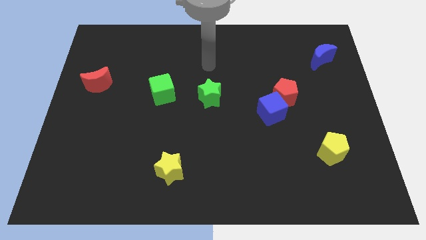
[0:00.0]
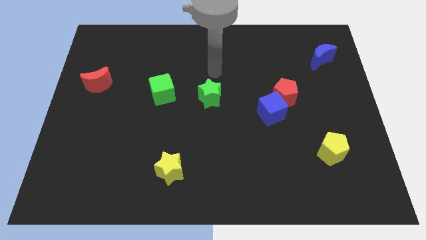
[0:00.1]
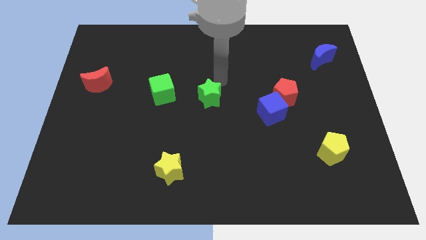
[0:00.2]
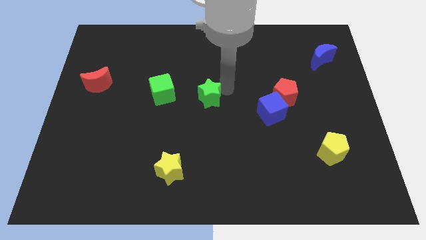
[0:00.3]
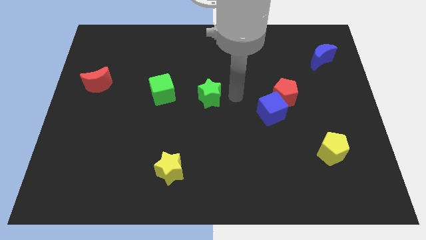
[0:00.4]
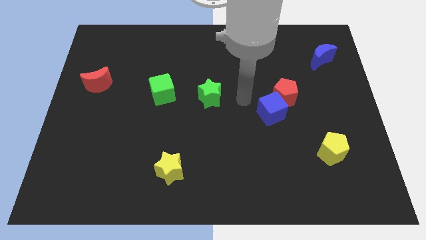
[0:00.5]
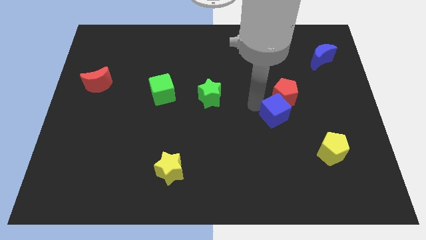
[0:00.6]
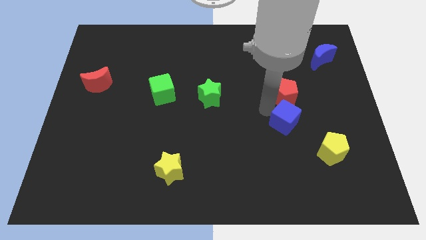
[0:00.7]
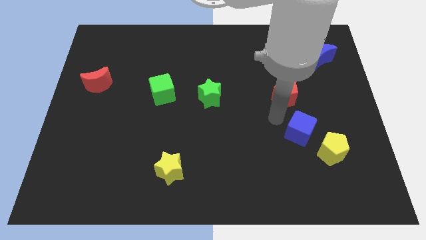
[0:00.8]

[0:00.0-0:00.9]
pull the red pentagon apart from the blue cube

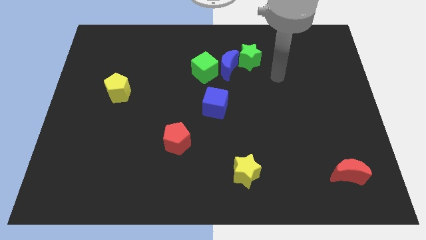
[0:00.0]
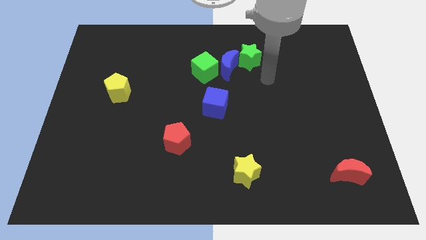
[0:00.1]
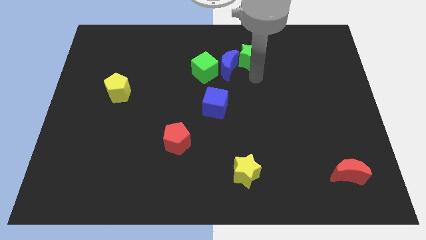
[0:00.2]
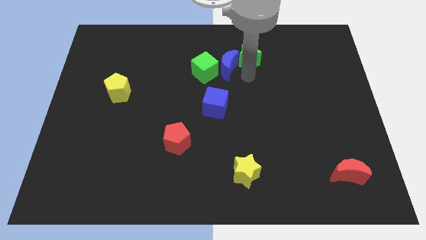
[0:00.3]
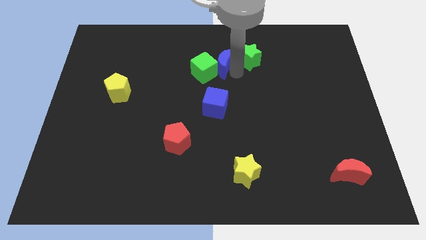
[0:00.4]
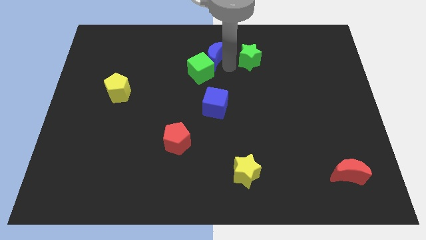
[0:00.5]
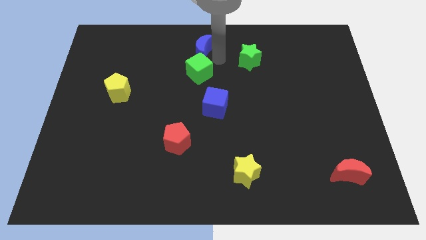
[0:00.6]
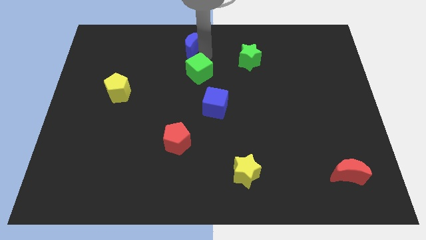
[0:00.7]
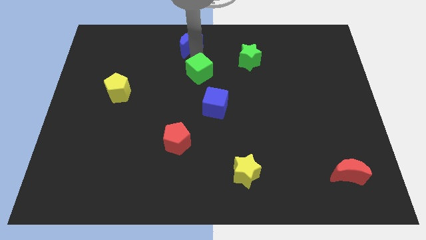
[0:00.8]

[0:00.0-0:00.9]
pull the green cube apart from the blue moon

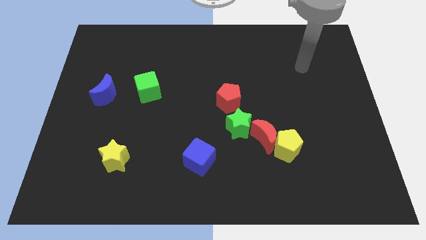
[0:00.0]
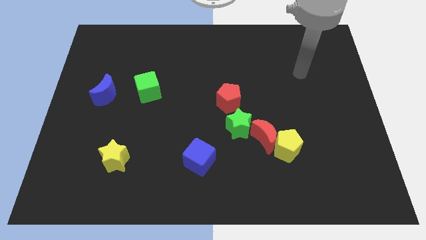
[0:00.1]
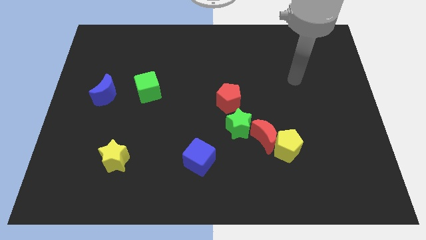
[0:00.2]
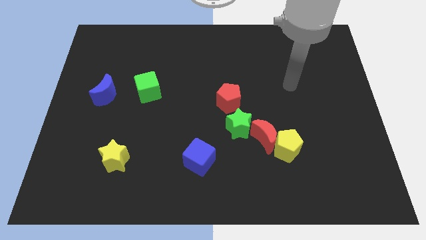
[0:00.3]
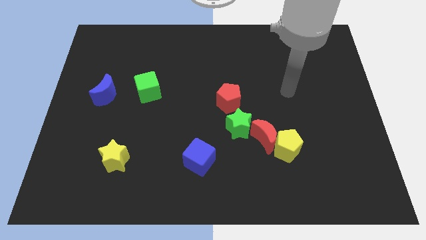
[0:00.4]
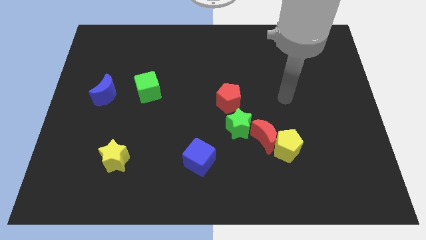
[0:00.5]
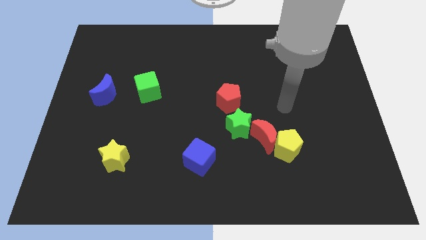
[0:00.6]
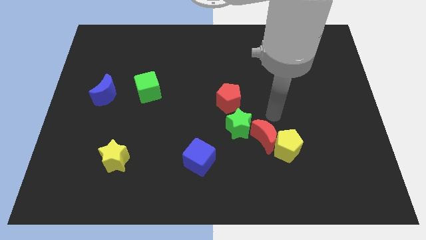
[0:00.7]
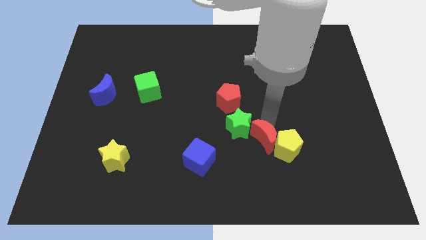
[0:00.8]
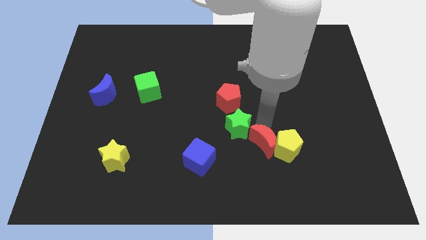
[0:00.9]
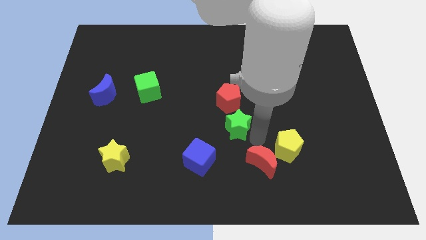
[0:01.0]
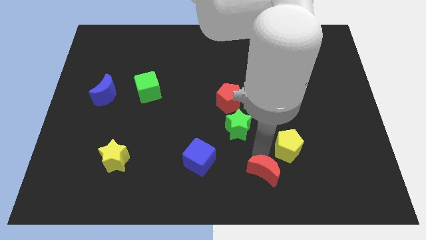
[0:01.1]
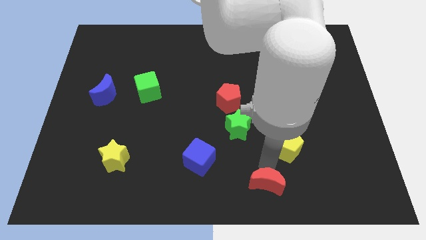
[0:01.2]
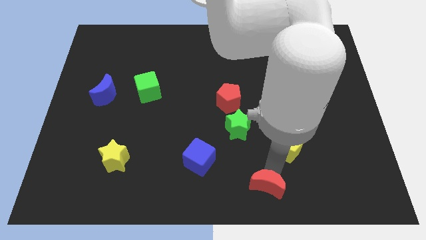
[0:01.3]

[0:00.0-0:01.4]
separate the yellow pentagon from the red moon

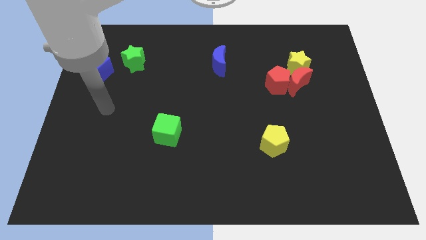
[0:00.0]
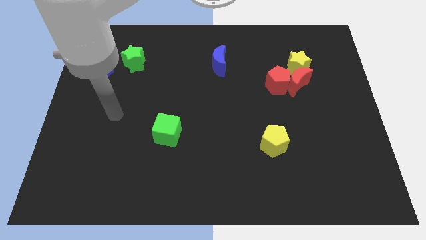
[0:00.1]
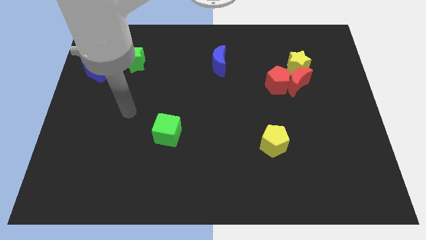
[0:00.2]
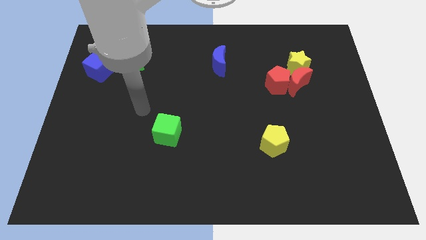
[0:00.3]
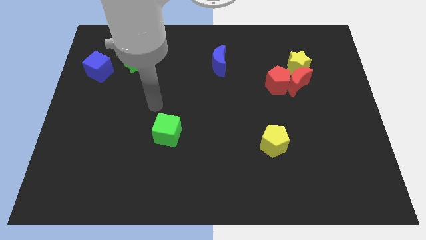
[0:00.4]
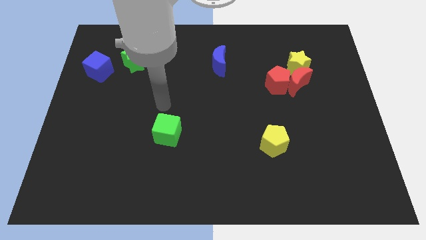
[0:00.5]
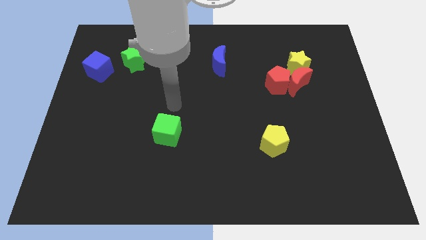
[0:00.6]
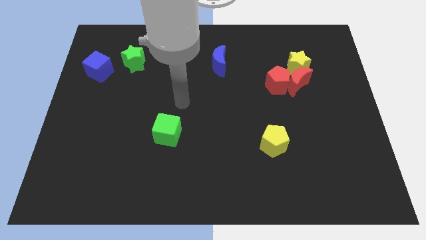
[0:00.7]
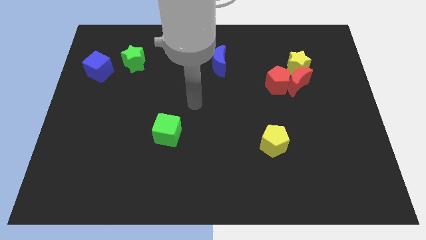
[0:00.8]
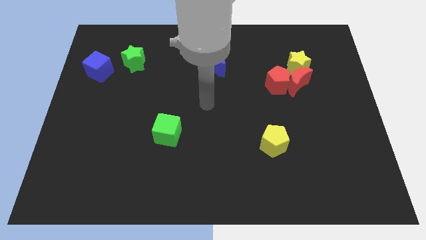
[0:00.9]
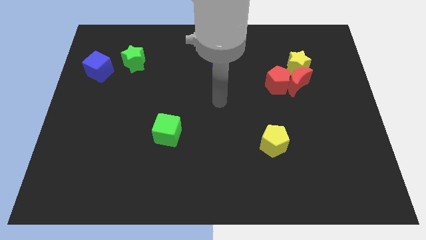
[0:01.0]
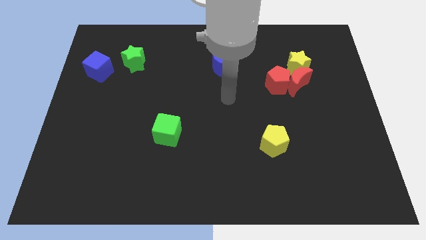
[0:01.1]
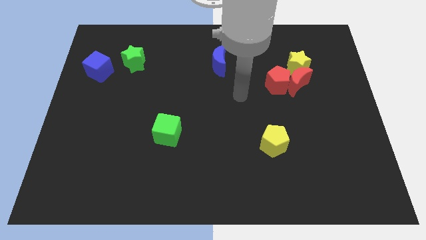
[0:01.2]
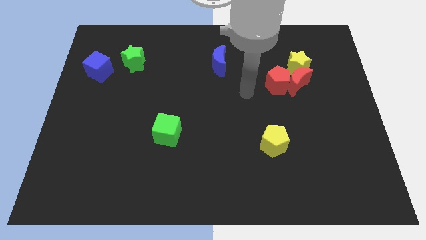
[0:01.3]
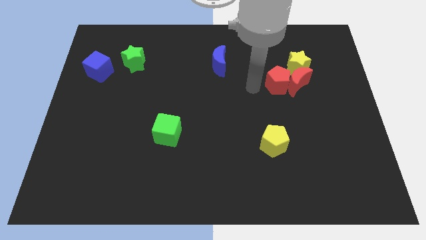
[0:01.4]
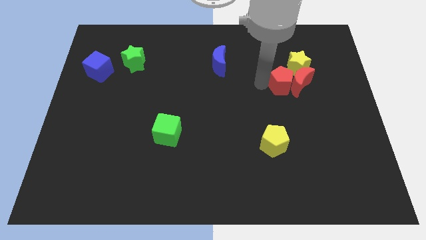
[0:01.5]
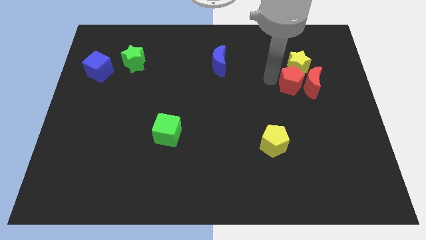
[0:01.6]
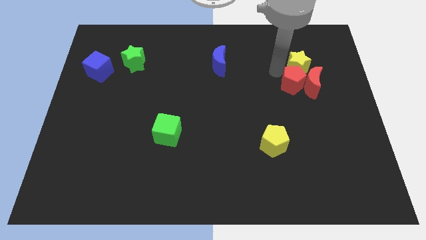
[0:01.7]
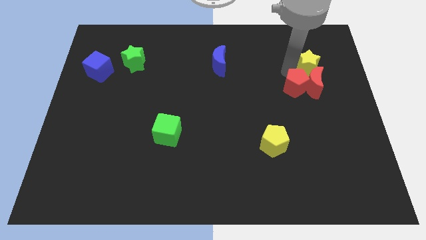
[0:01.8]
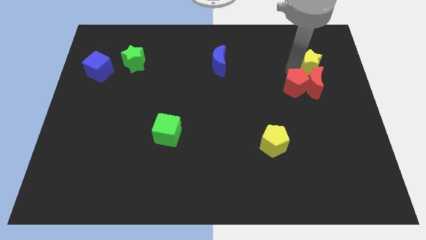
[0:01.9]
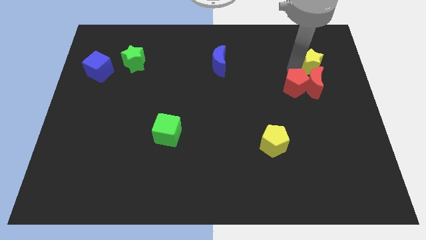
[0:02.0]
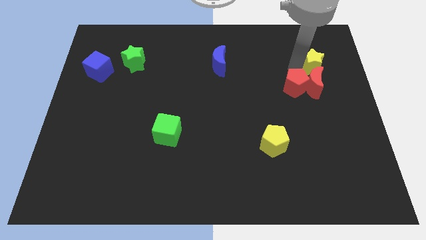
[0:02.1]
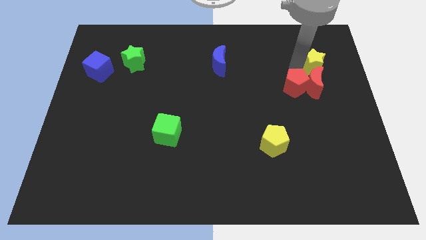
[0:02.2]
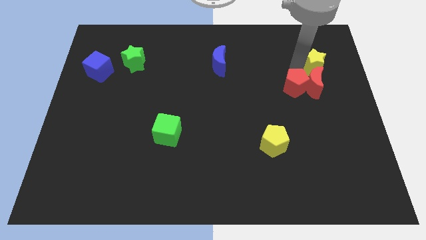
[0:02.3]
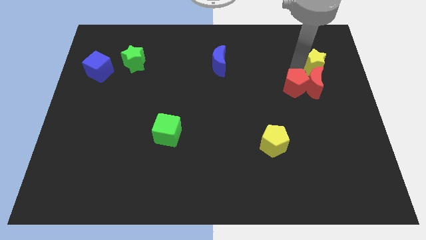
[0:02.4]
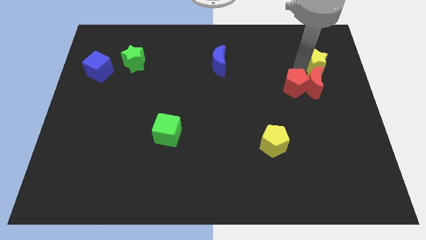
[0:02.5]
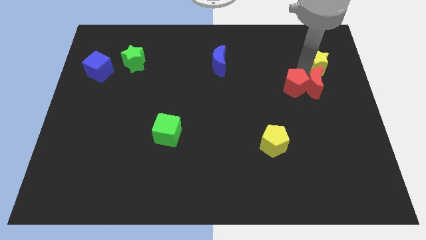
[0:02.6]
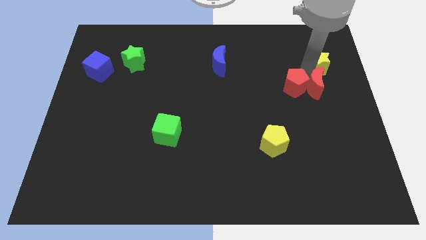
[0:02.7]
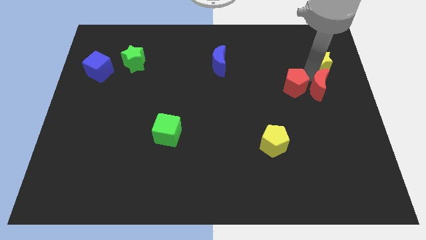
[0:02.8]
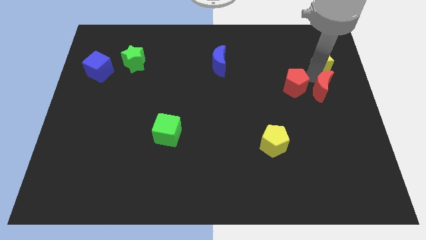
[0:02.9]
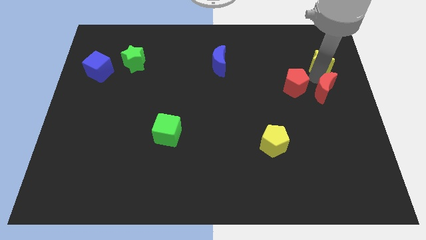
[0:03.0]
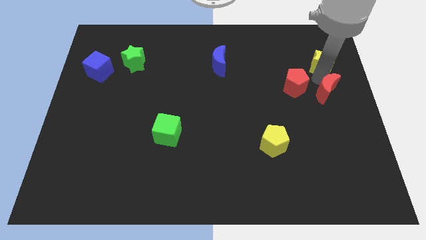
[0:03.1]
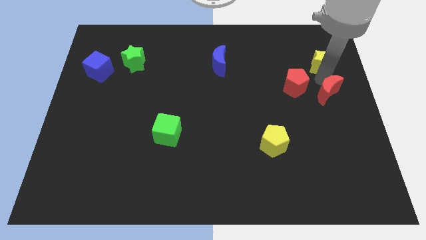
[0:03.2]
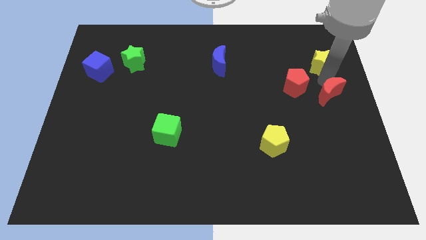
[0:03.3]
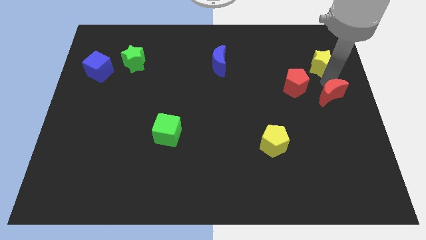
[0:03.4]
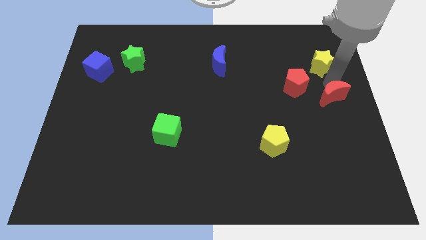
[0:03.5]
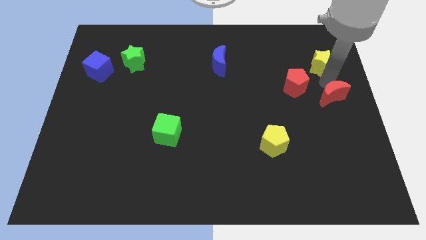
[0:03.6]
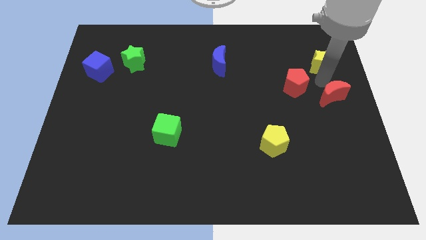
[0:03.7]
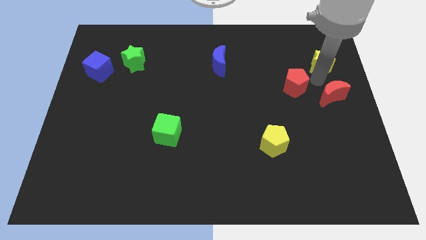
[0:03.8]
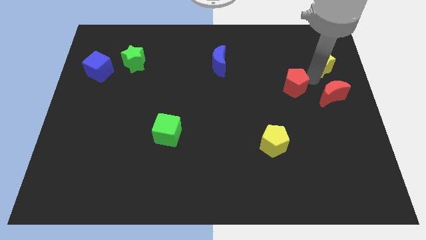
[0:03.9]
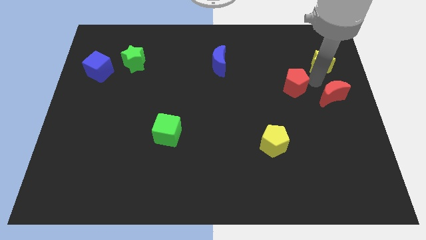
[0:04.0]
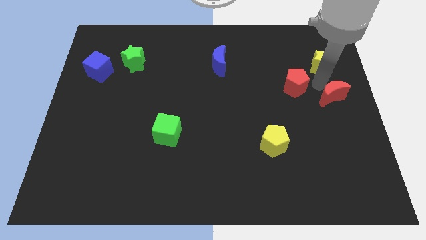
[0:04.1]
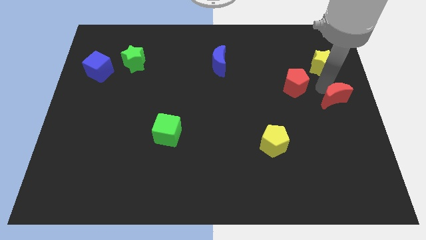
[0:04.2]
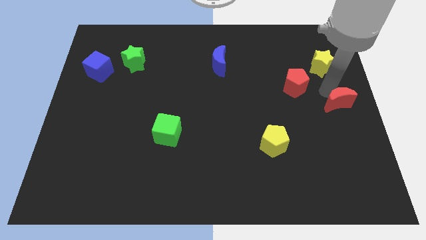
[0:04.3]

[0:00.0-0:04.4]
separate the red moon from the red pentagon and yellow star

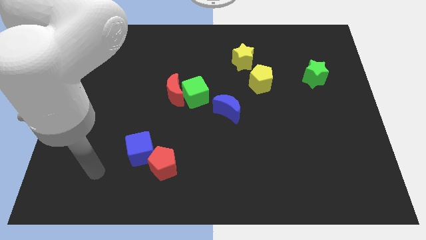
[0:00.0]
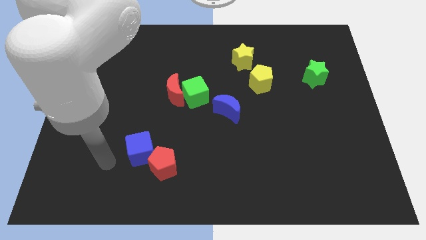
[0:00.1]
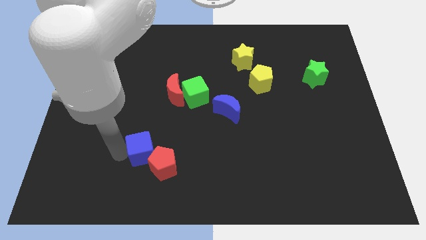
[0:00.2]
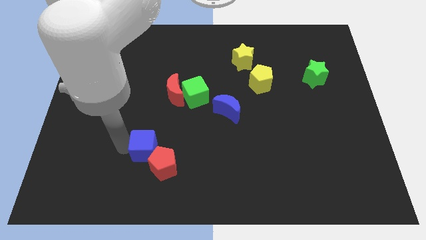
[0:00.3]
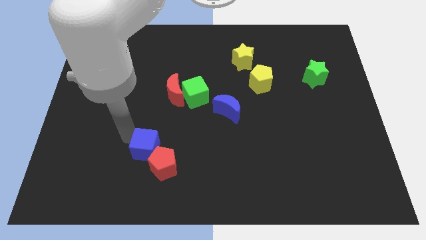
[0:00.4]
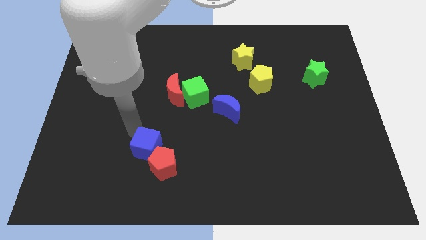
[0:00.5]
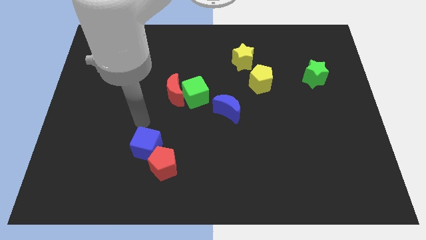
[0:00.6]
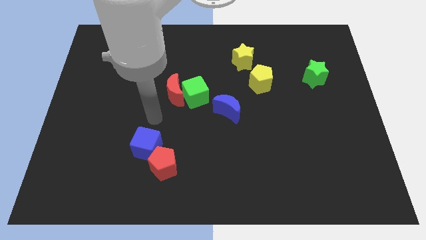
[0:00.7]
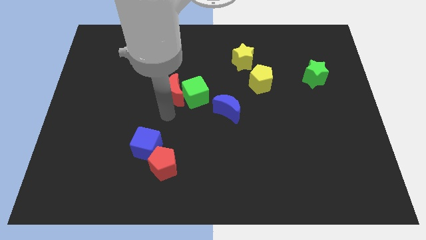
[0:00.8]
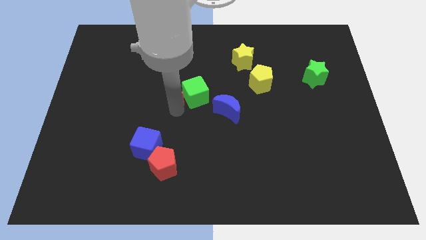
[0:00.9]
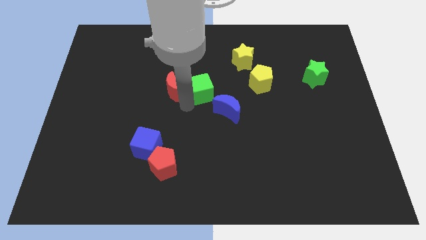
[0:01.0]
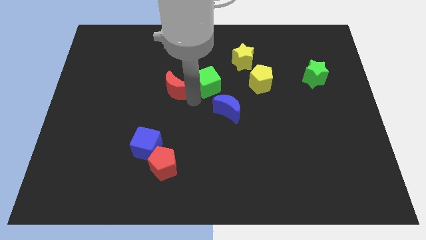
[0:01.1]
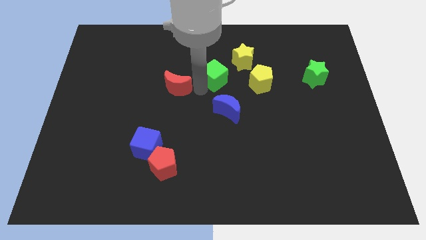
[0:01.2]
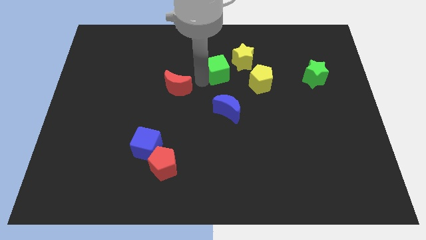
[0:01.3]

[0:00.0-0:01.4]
move the red moon away from the green cube

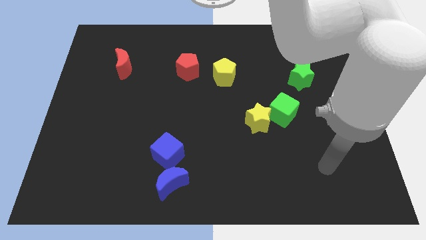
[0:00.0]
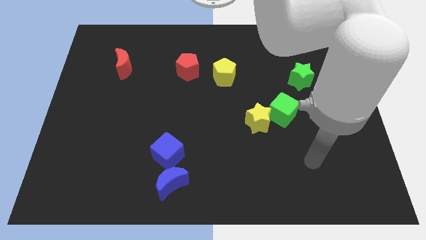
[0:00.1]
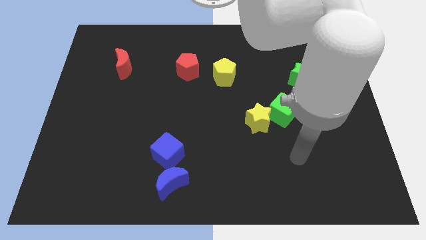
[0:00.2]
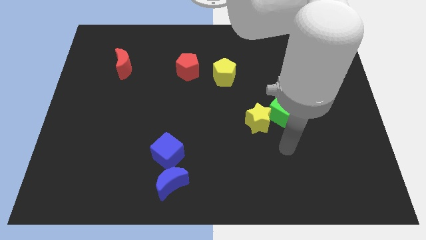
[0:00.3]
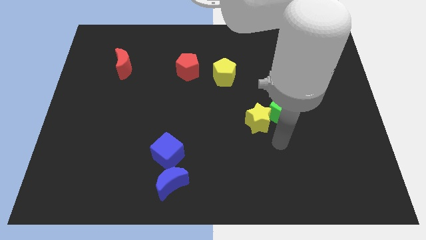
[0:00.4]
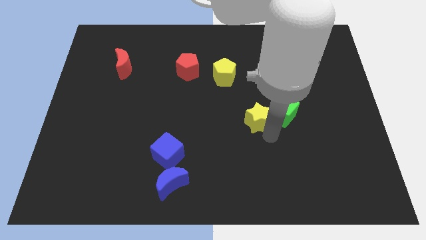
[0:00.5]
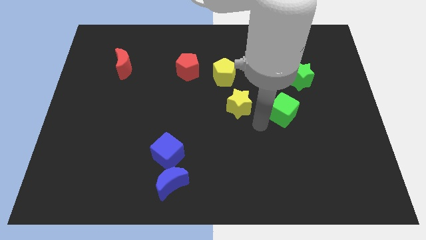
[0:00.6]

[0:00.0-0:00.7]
separate the green cube from the yellow star
